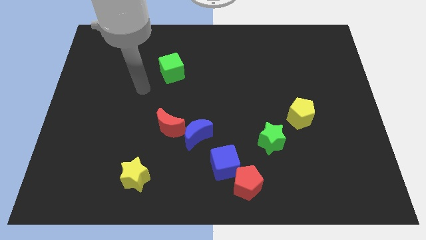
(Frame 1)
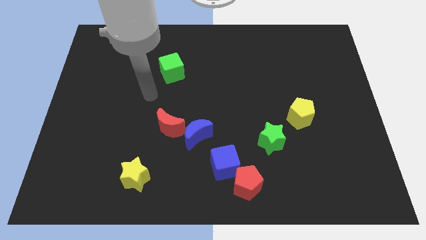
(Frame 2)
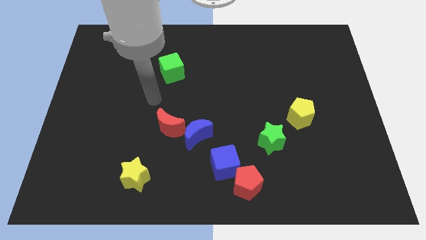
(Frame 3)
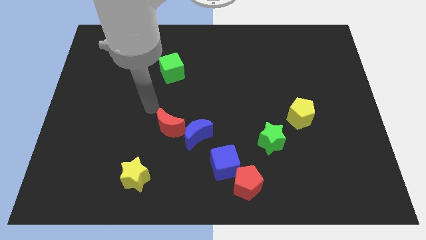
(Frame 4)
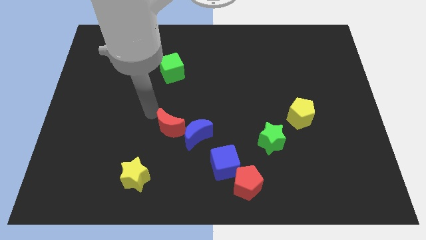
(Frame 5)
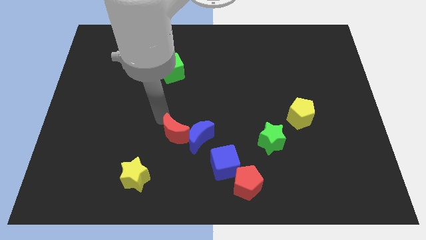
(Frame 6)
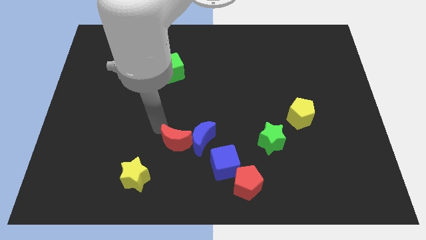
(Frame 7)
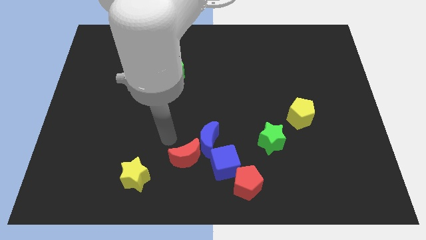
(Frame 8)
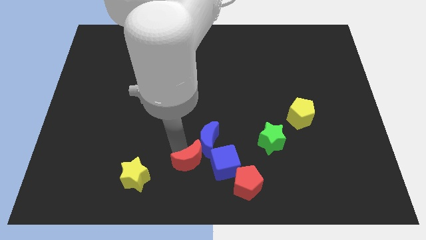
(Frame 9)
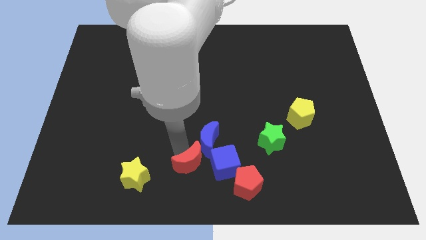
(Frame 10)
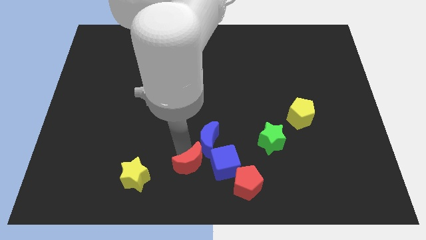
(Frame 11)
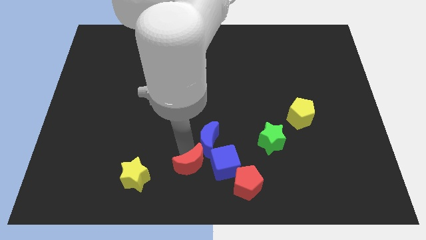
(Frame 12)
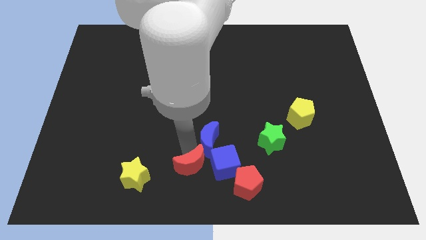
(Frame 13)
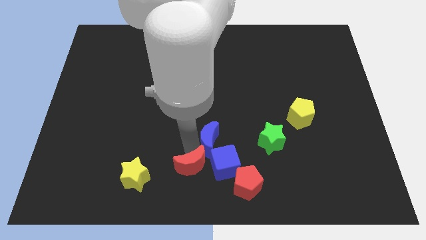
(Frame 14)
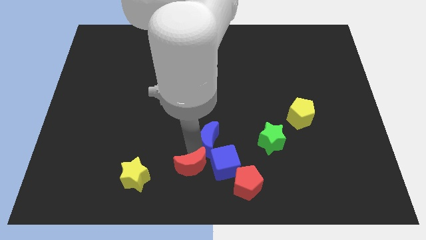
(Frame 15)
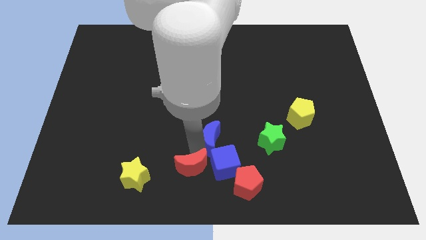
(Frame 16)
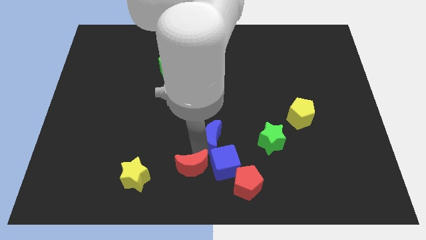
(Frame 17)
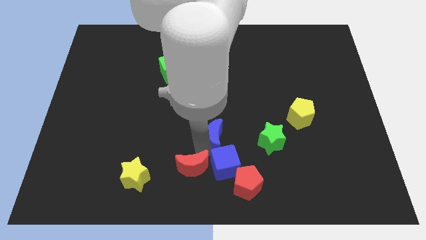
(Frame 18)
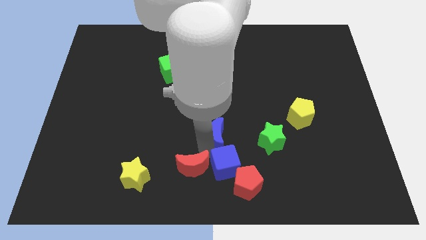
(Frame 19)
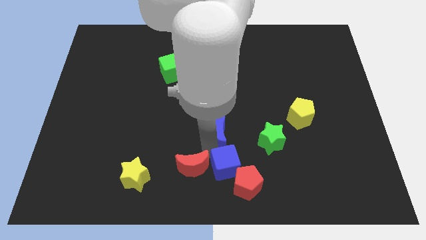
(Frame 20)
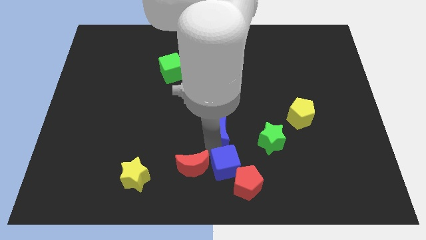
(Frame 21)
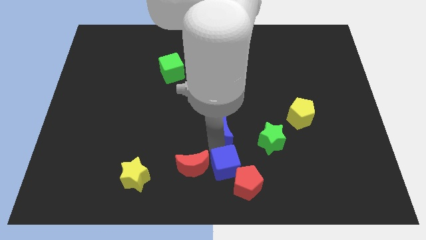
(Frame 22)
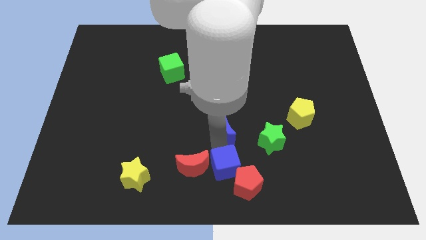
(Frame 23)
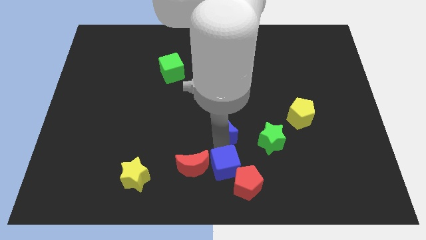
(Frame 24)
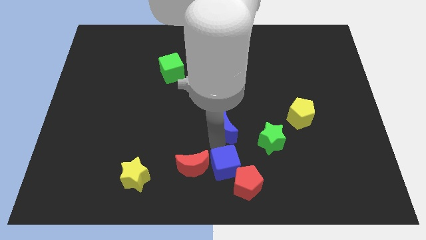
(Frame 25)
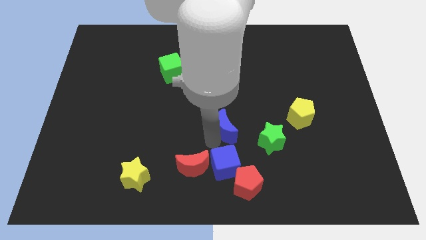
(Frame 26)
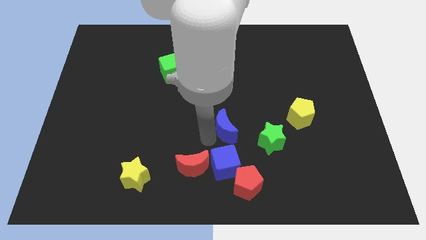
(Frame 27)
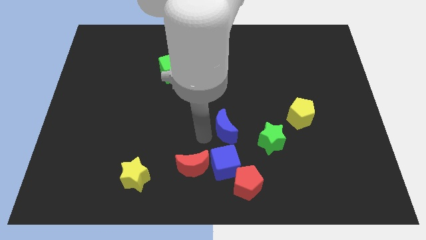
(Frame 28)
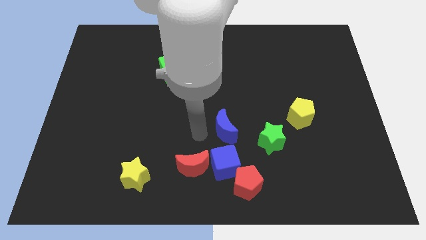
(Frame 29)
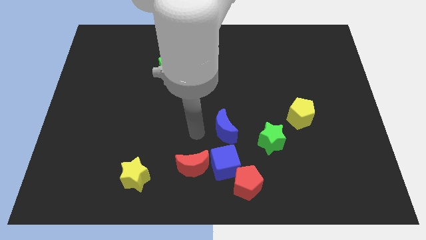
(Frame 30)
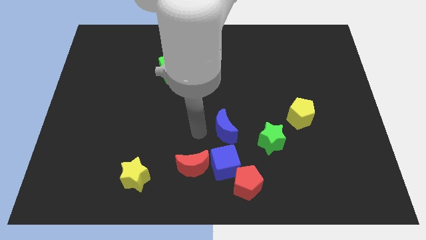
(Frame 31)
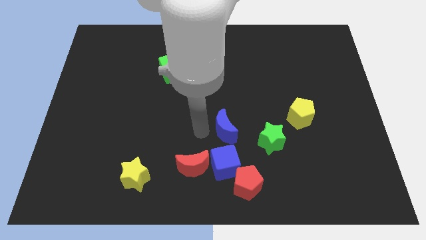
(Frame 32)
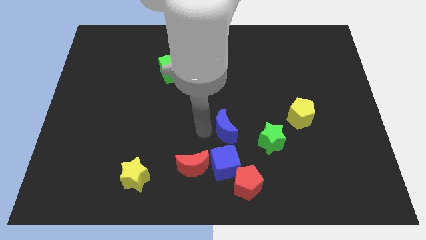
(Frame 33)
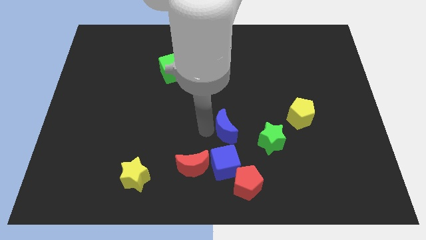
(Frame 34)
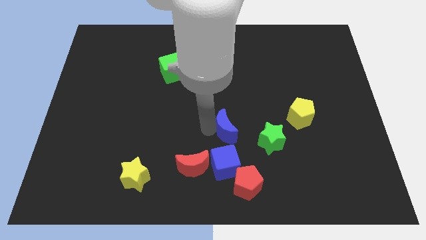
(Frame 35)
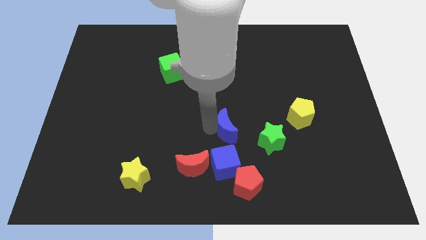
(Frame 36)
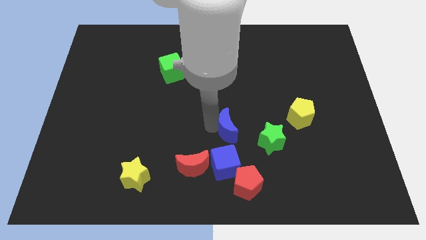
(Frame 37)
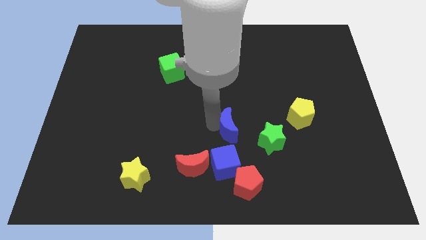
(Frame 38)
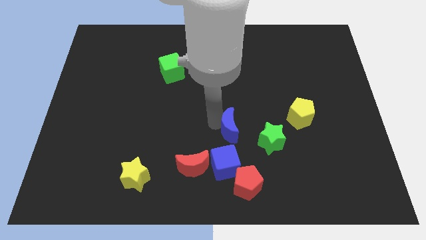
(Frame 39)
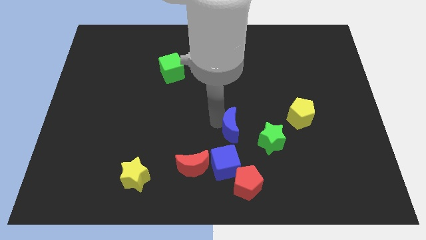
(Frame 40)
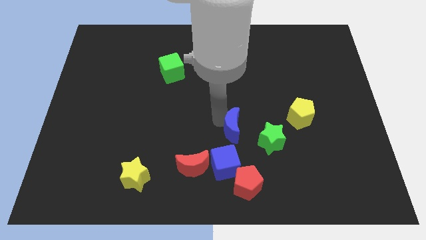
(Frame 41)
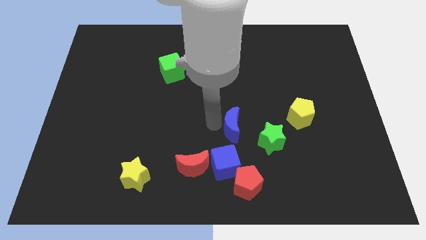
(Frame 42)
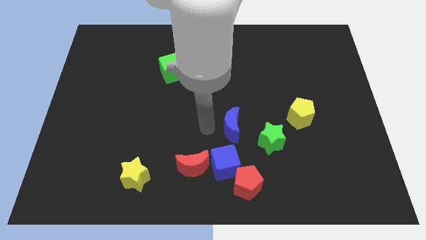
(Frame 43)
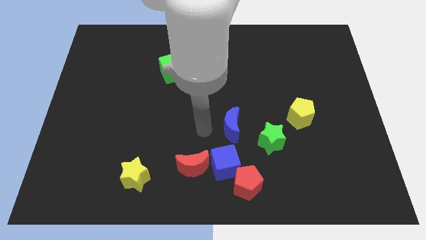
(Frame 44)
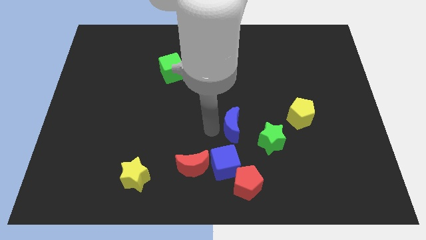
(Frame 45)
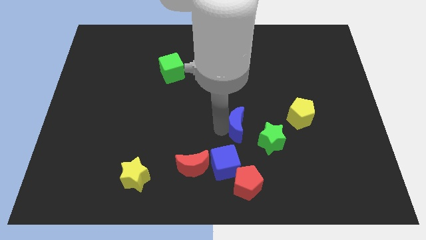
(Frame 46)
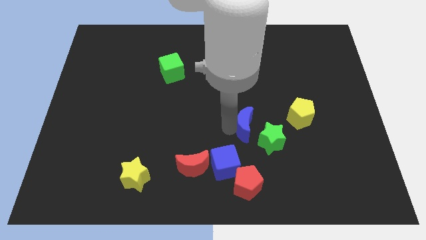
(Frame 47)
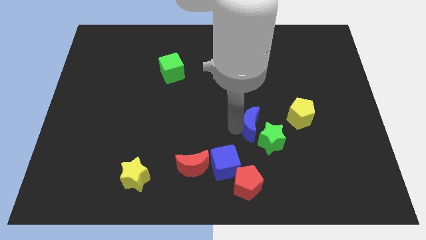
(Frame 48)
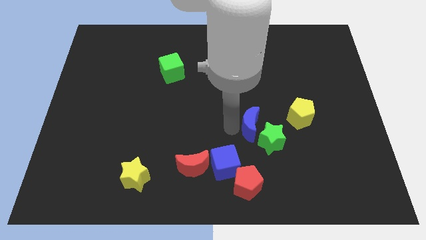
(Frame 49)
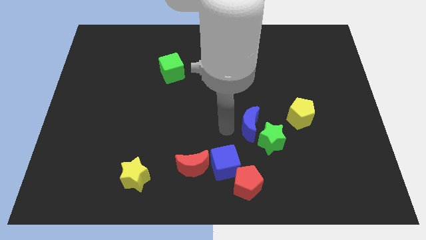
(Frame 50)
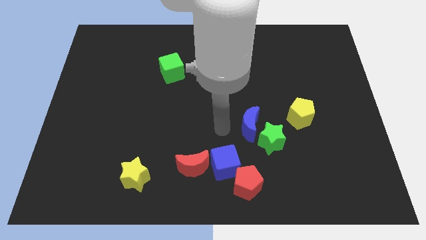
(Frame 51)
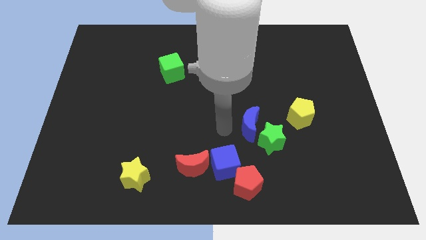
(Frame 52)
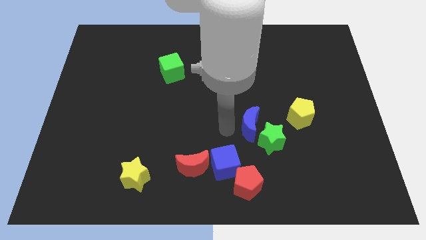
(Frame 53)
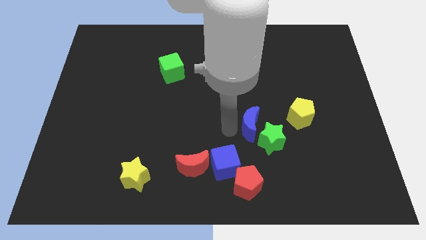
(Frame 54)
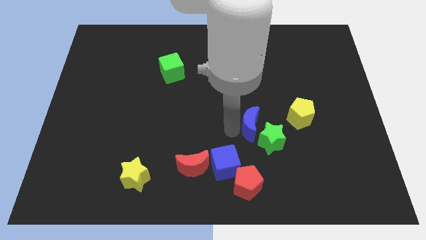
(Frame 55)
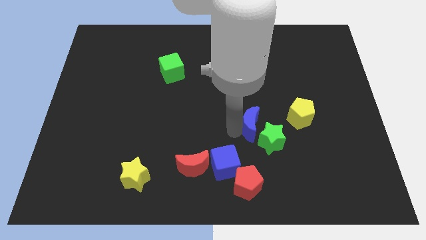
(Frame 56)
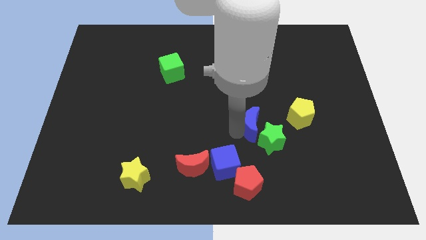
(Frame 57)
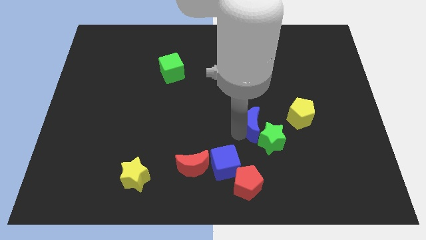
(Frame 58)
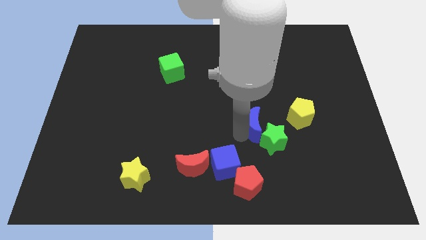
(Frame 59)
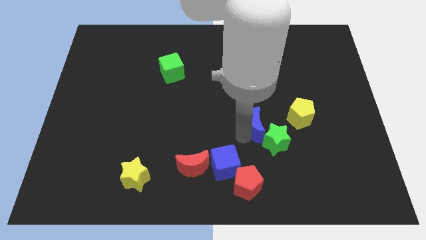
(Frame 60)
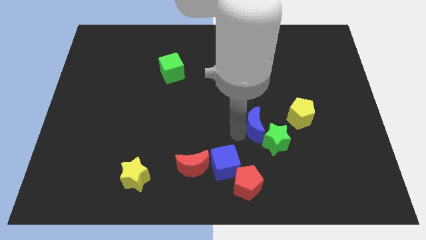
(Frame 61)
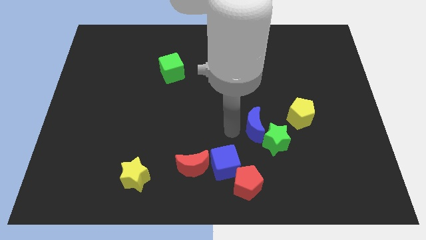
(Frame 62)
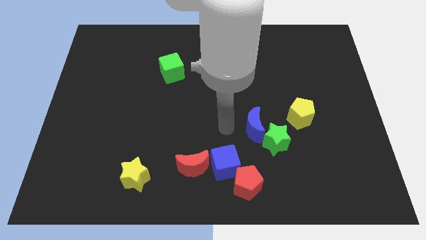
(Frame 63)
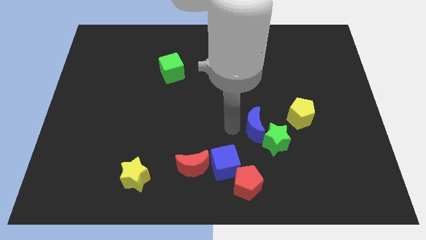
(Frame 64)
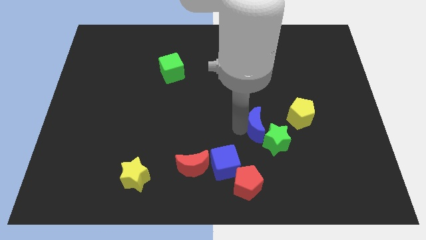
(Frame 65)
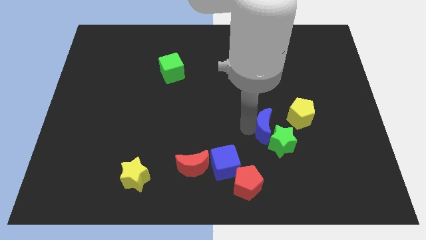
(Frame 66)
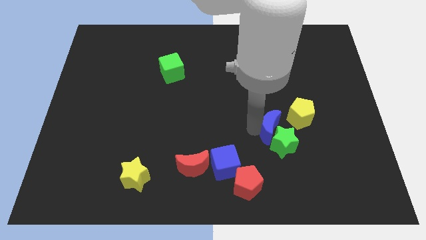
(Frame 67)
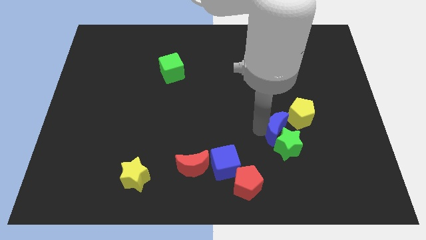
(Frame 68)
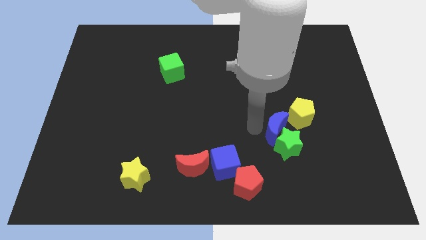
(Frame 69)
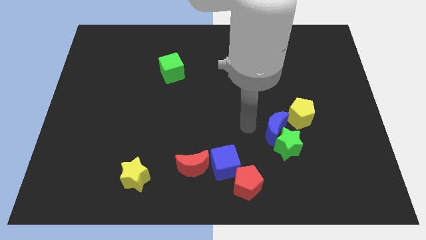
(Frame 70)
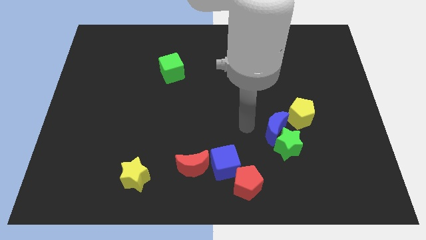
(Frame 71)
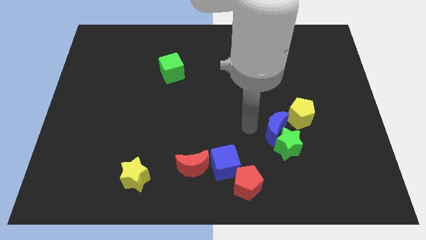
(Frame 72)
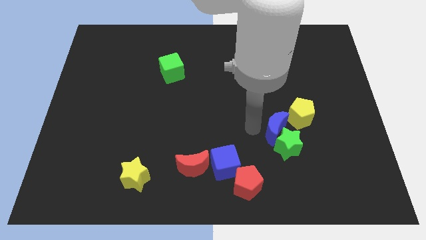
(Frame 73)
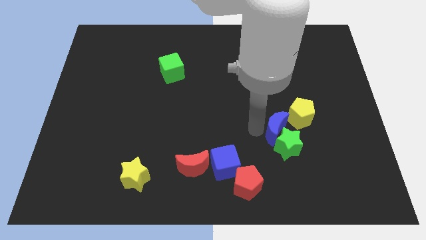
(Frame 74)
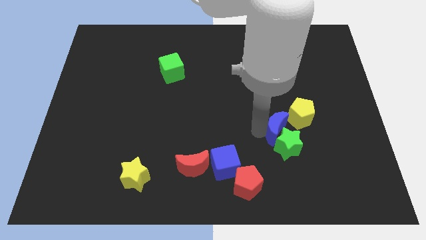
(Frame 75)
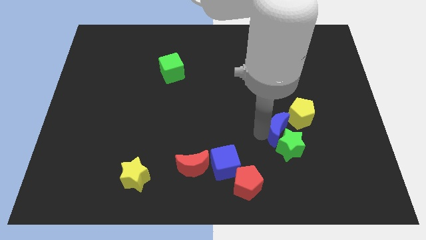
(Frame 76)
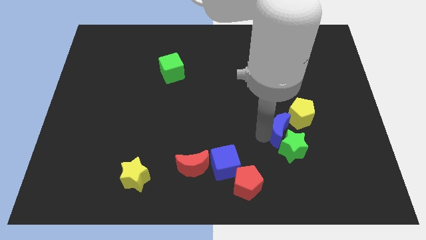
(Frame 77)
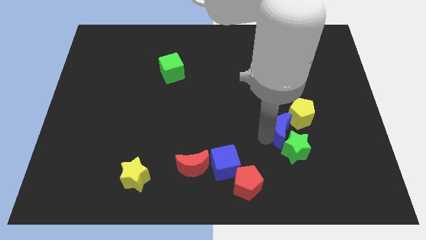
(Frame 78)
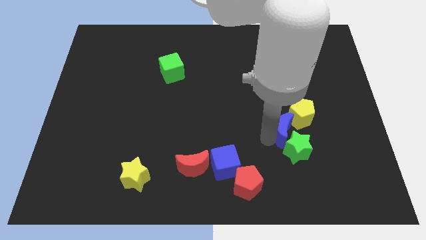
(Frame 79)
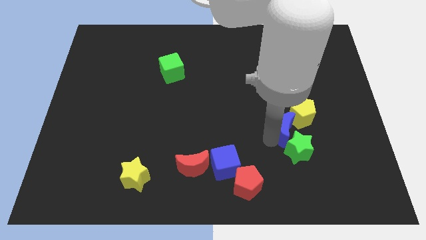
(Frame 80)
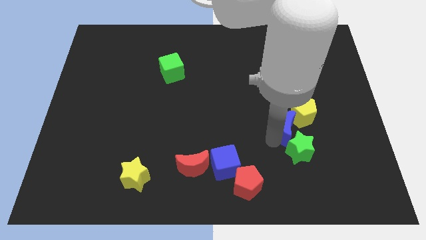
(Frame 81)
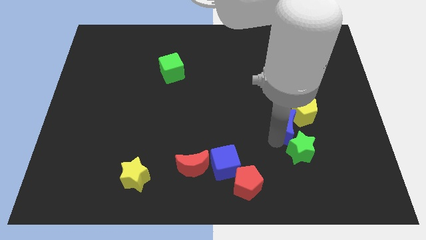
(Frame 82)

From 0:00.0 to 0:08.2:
move the blue moon to the right
